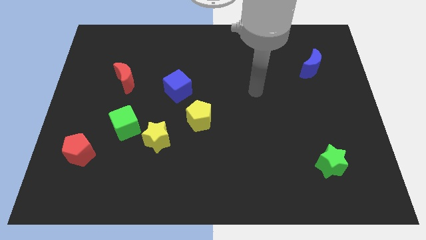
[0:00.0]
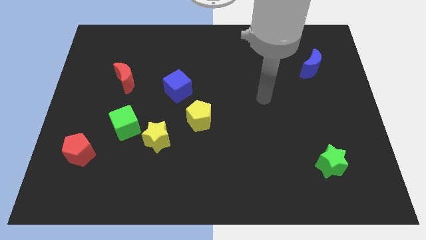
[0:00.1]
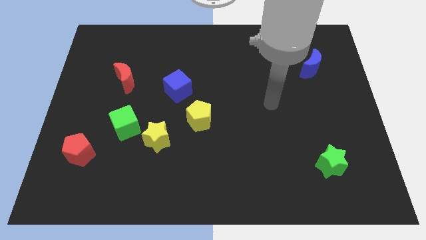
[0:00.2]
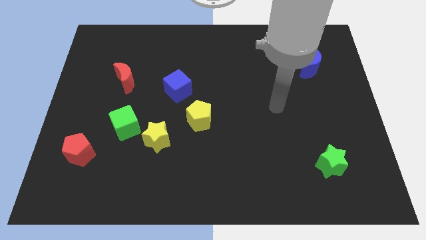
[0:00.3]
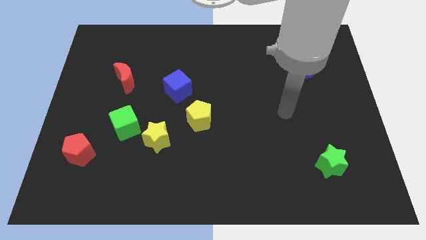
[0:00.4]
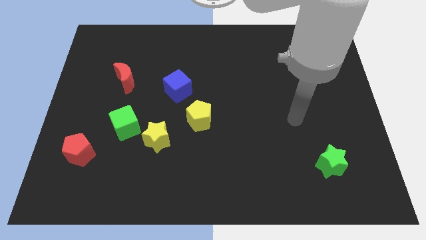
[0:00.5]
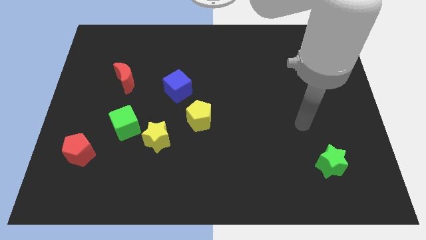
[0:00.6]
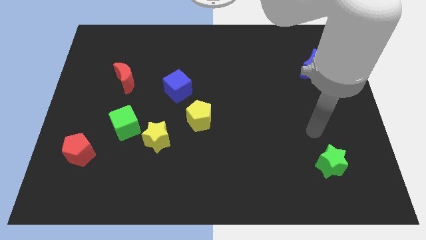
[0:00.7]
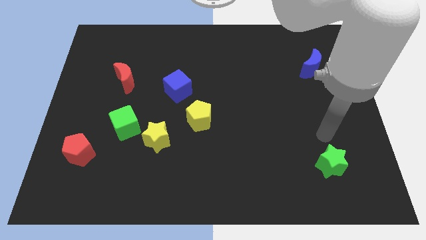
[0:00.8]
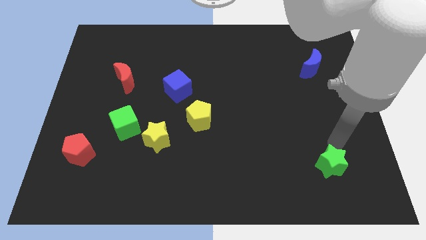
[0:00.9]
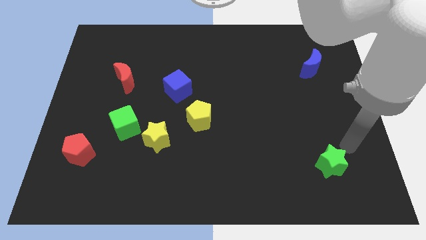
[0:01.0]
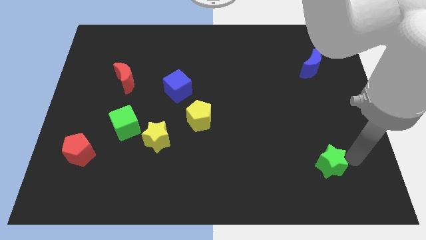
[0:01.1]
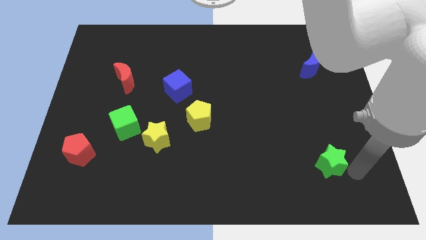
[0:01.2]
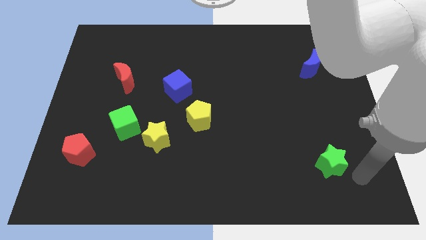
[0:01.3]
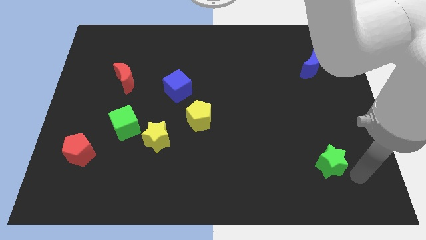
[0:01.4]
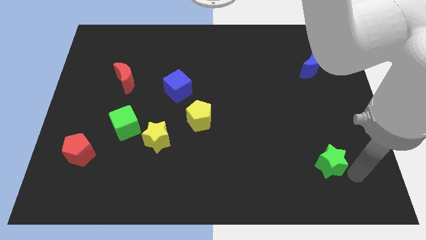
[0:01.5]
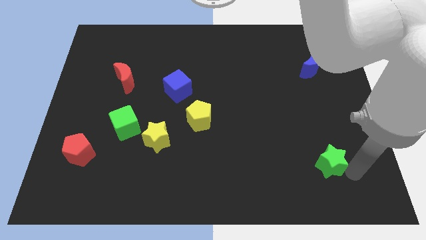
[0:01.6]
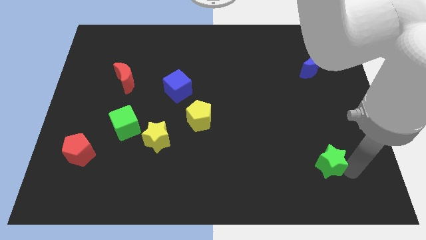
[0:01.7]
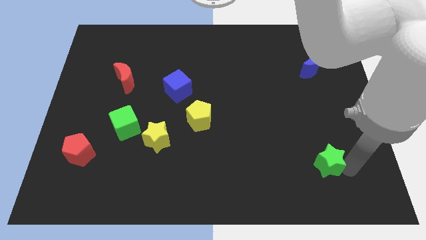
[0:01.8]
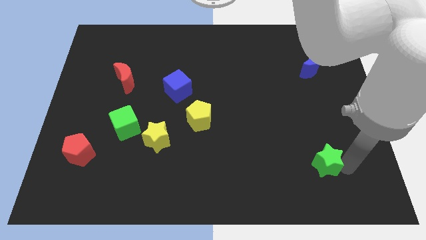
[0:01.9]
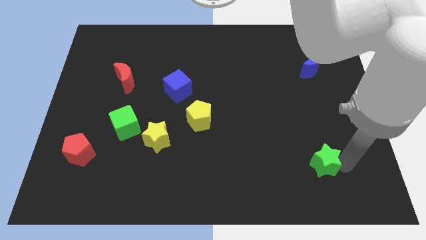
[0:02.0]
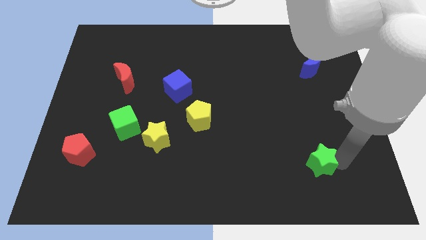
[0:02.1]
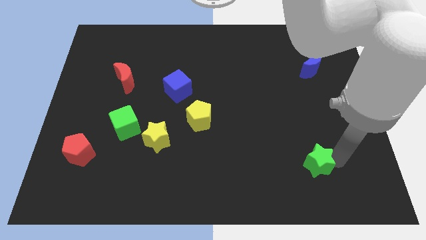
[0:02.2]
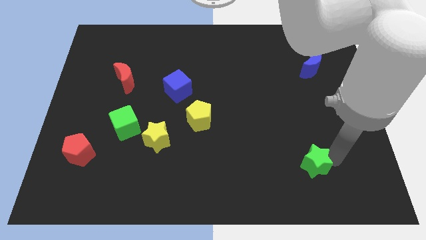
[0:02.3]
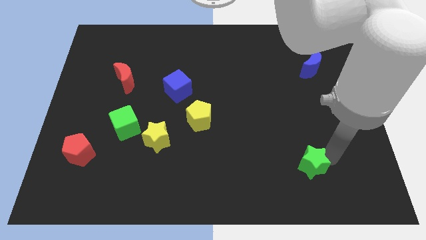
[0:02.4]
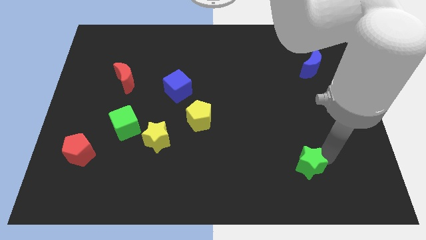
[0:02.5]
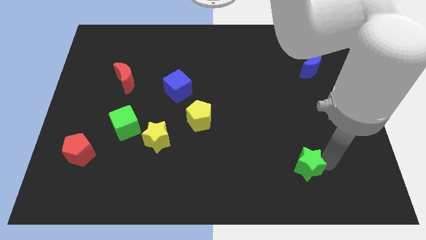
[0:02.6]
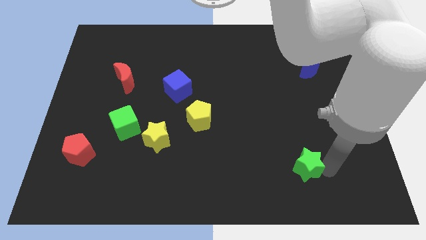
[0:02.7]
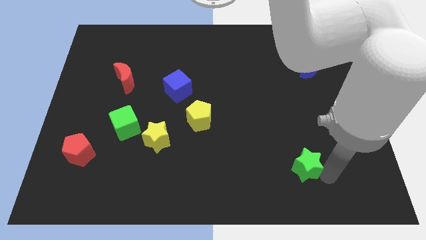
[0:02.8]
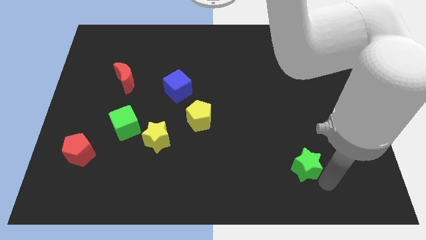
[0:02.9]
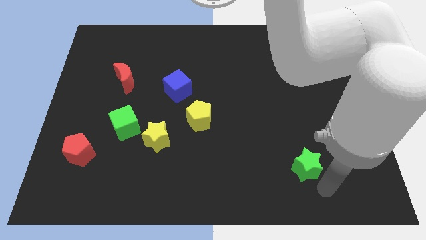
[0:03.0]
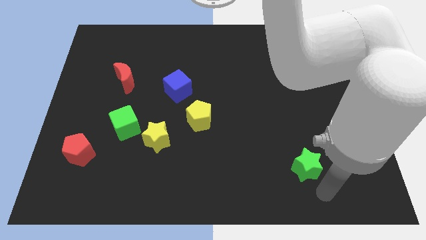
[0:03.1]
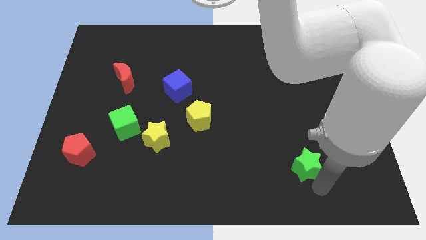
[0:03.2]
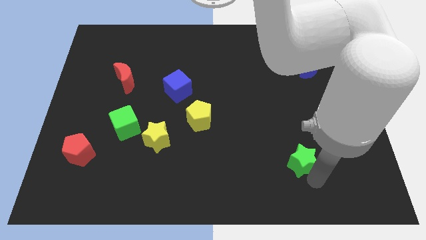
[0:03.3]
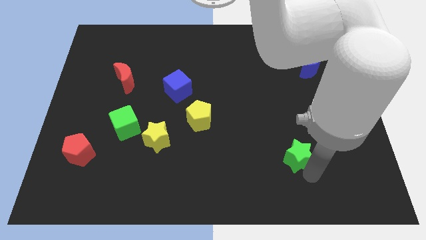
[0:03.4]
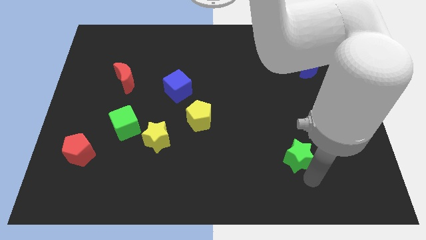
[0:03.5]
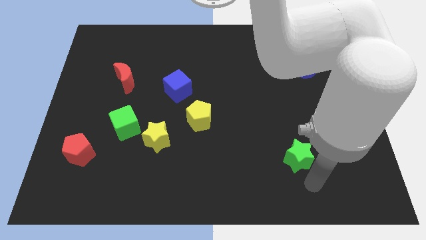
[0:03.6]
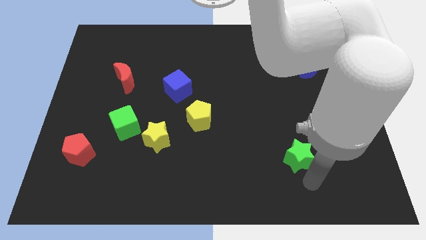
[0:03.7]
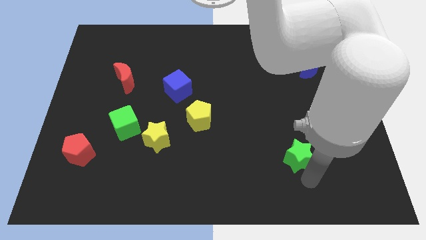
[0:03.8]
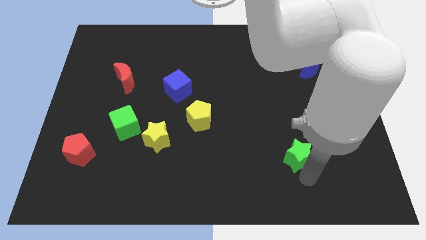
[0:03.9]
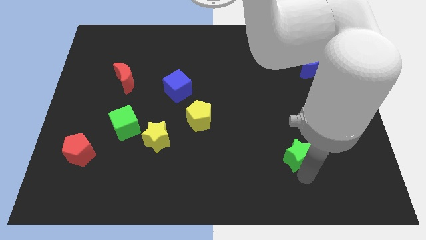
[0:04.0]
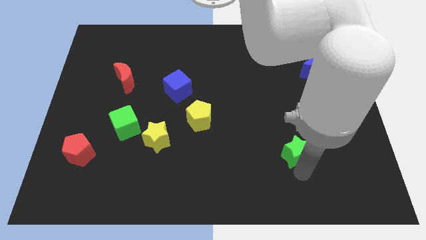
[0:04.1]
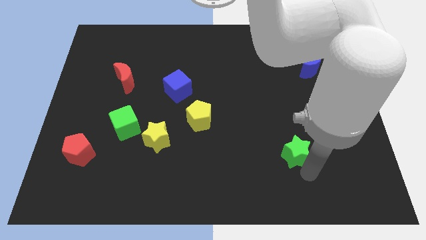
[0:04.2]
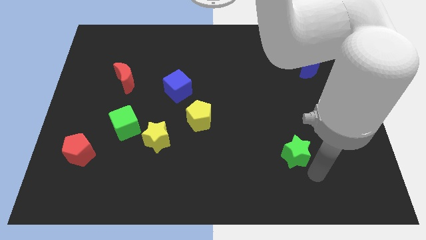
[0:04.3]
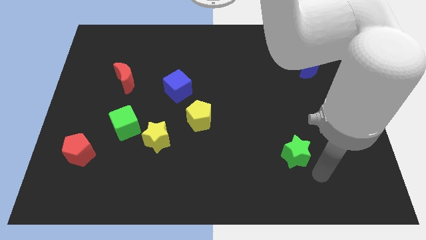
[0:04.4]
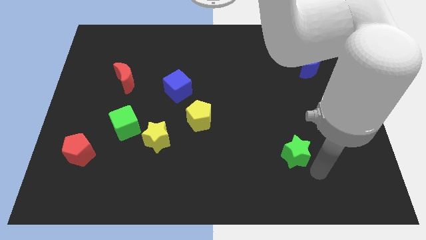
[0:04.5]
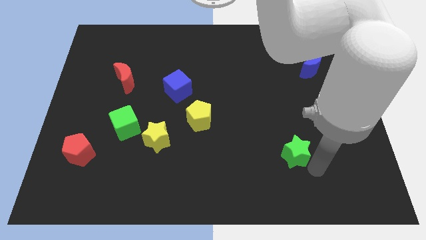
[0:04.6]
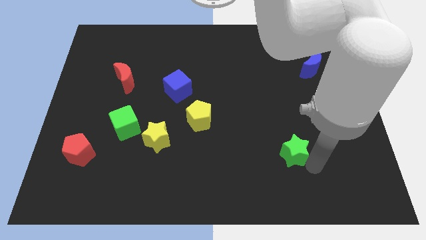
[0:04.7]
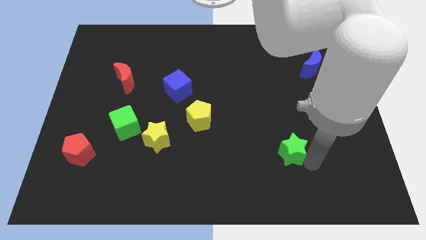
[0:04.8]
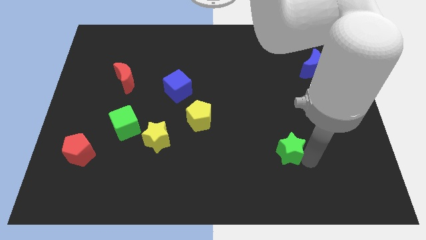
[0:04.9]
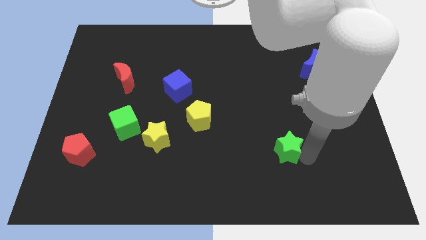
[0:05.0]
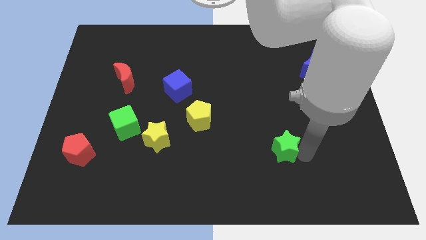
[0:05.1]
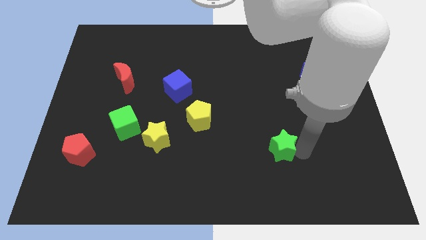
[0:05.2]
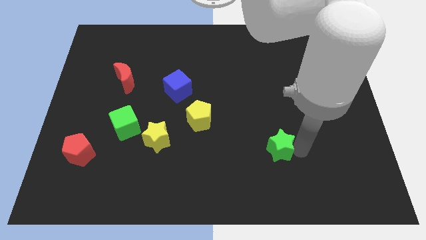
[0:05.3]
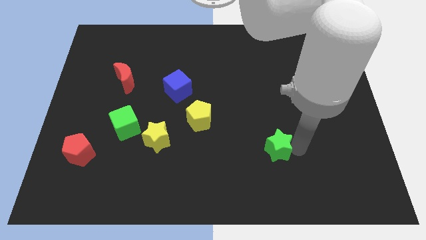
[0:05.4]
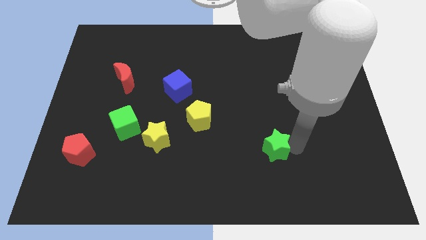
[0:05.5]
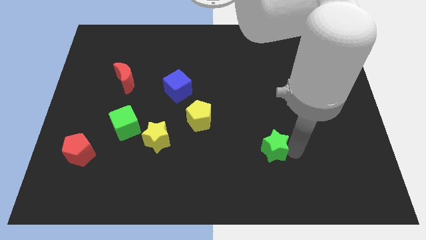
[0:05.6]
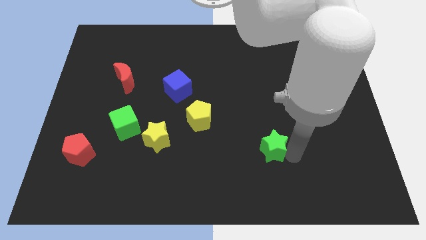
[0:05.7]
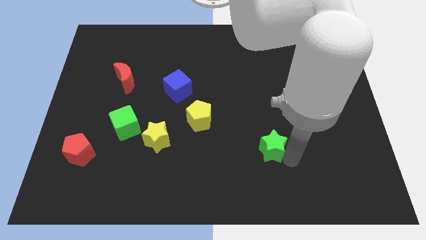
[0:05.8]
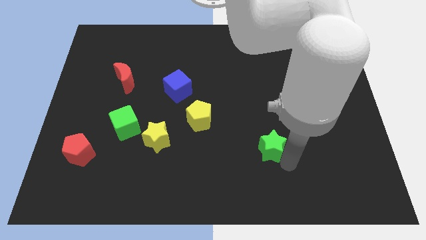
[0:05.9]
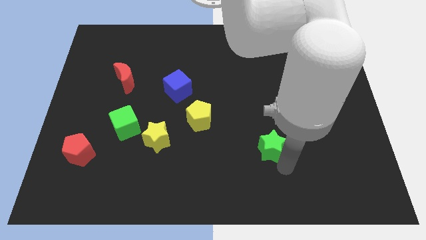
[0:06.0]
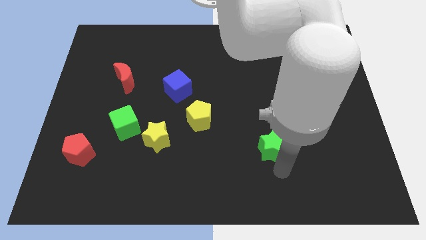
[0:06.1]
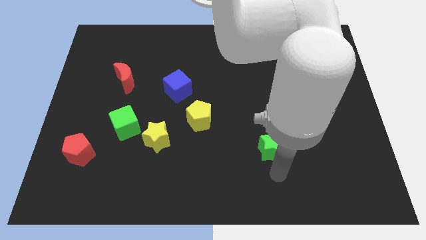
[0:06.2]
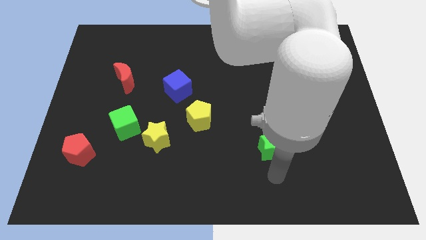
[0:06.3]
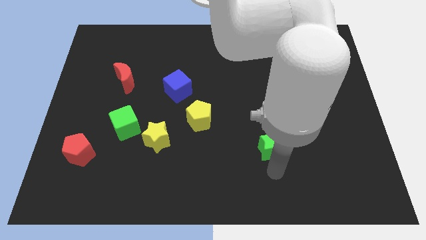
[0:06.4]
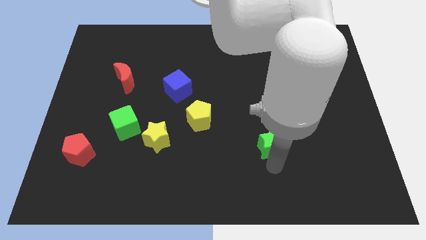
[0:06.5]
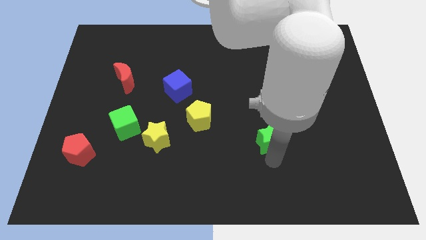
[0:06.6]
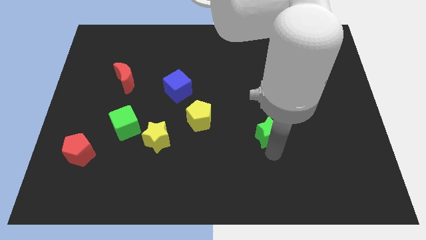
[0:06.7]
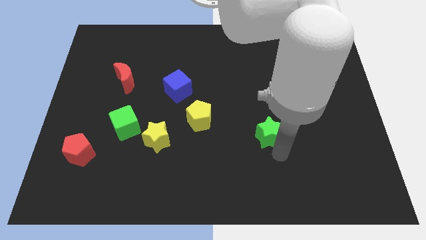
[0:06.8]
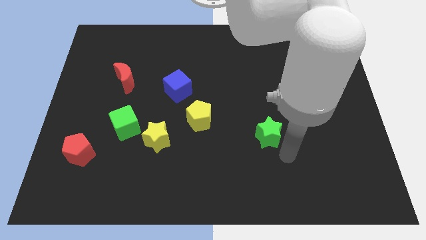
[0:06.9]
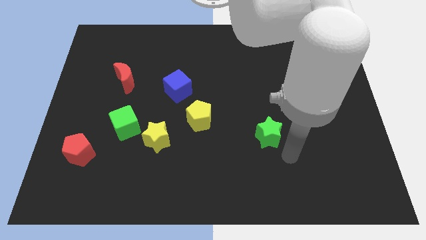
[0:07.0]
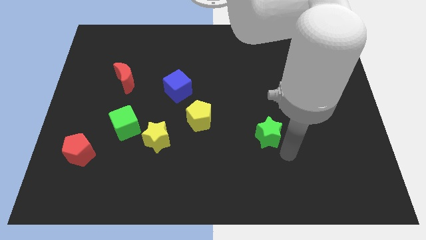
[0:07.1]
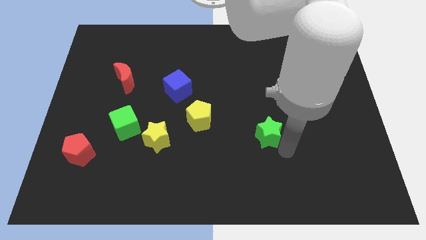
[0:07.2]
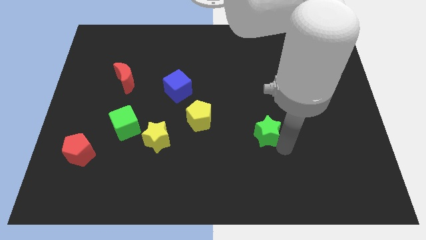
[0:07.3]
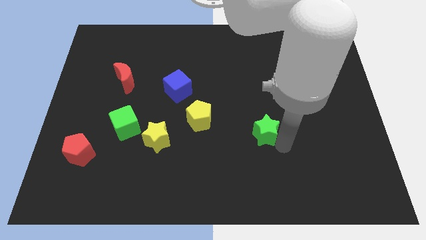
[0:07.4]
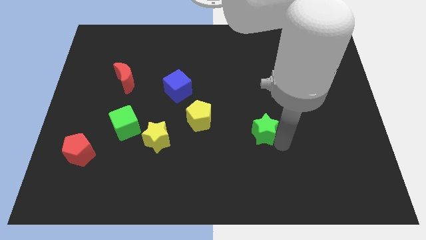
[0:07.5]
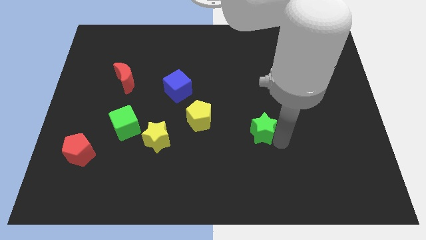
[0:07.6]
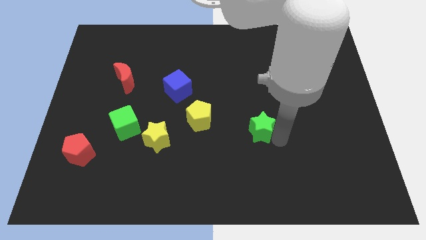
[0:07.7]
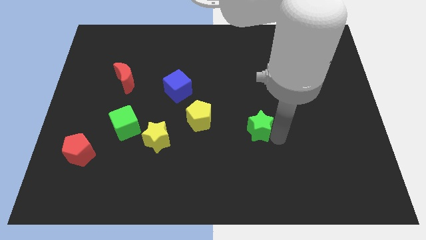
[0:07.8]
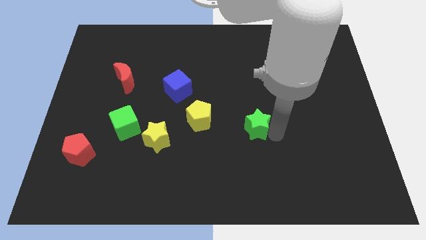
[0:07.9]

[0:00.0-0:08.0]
slide the green star to the middle of the board
